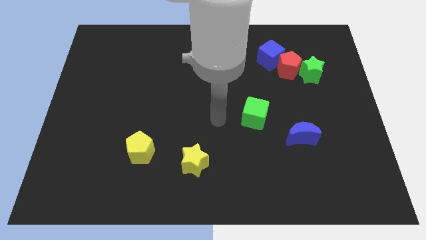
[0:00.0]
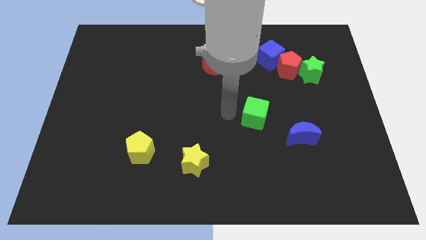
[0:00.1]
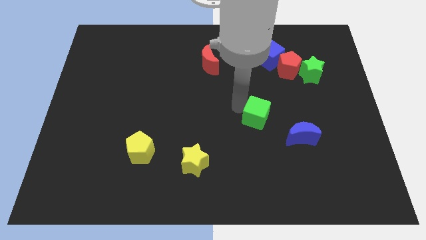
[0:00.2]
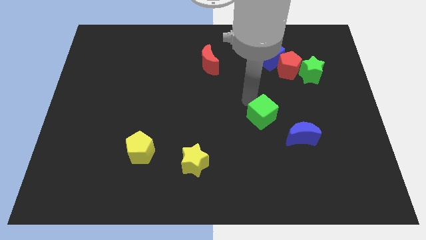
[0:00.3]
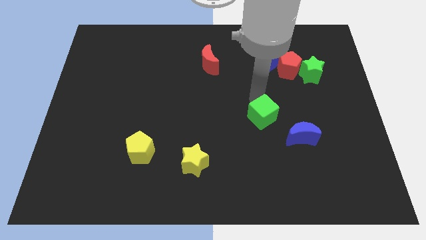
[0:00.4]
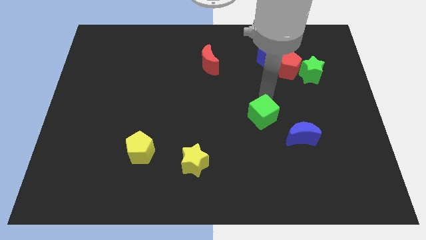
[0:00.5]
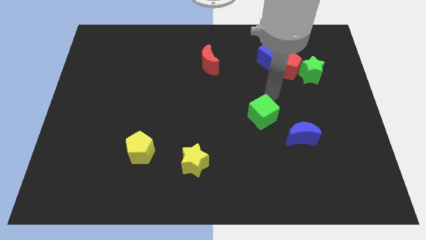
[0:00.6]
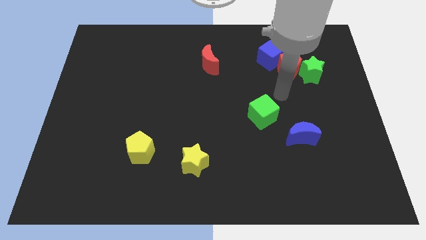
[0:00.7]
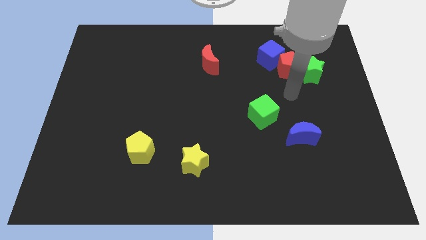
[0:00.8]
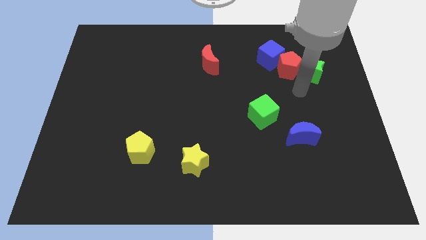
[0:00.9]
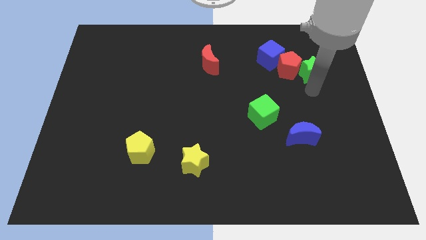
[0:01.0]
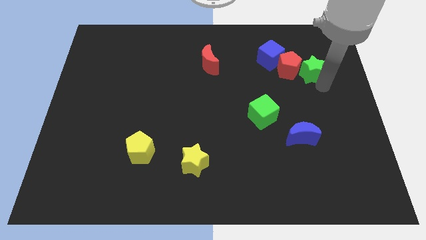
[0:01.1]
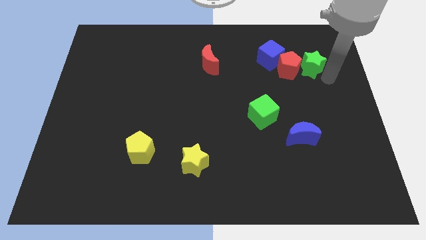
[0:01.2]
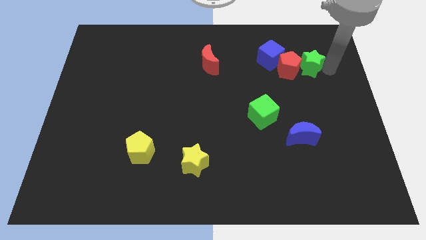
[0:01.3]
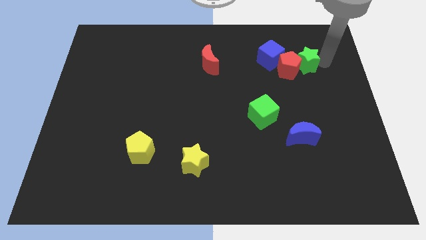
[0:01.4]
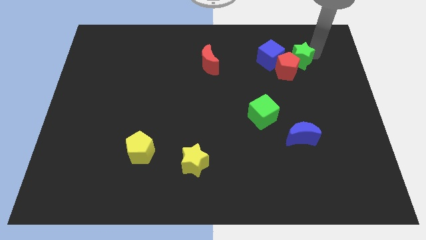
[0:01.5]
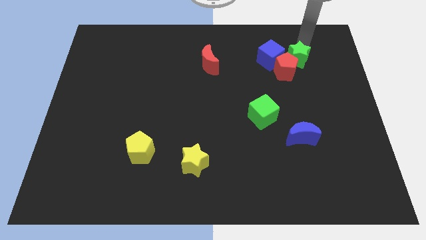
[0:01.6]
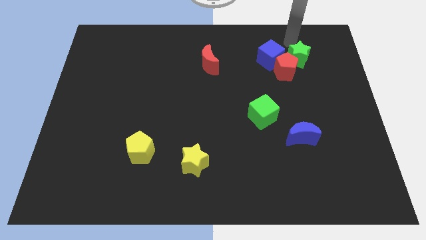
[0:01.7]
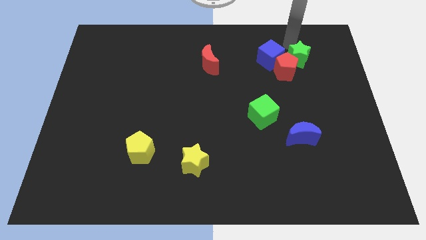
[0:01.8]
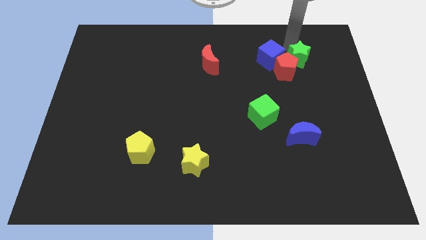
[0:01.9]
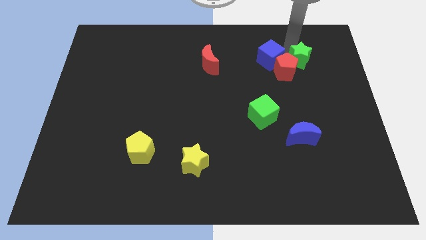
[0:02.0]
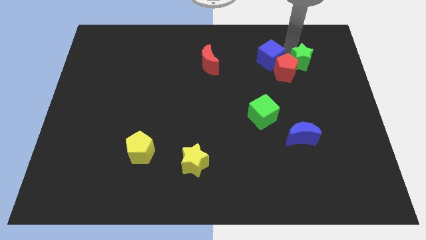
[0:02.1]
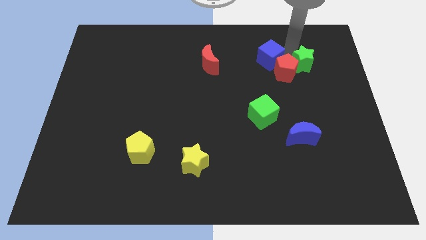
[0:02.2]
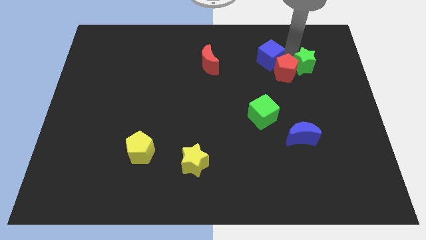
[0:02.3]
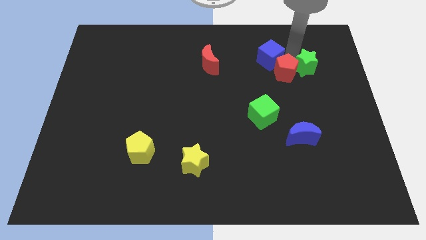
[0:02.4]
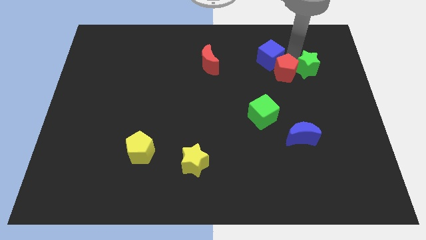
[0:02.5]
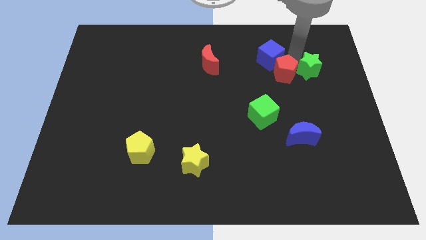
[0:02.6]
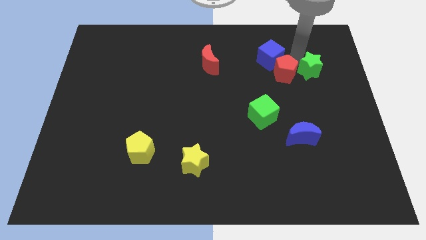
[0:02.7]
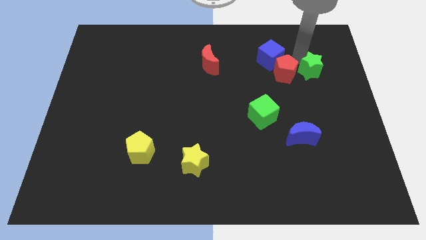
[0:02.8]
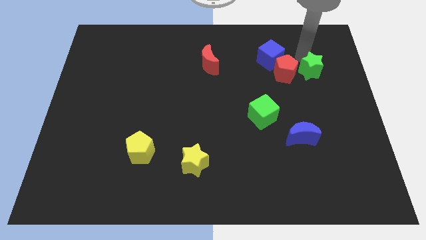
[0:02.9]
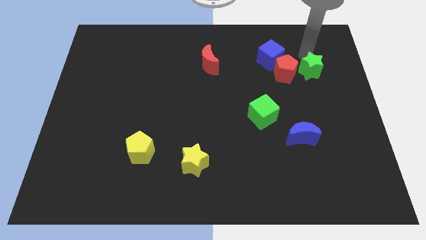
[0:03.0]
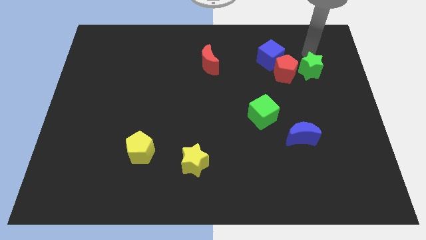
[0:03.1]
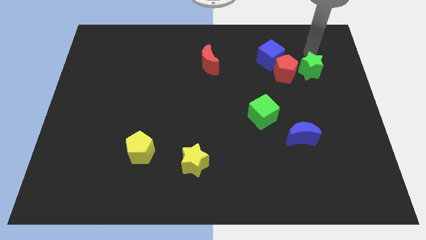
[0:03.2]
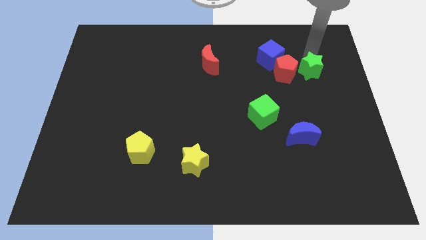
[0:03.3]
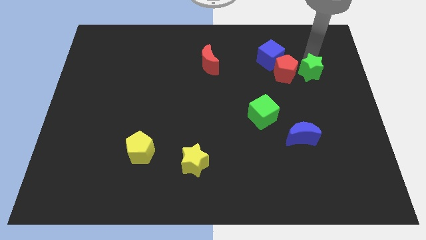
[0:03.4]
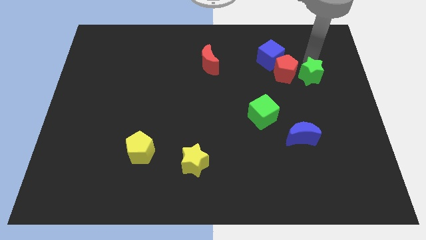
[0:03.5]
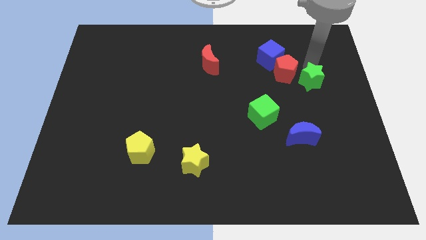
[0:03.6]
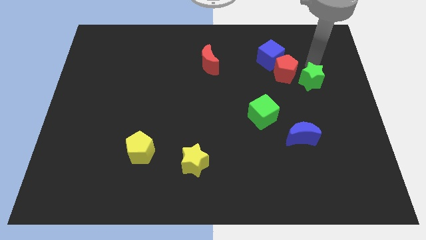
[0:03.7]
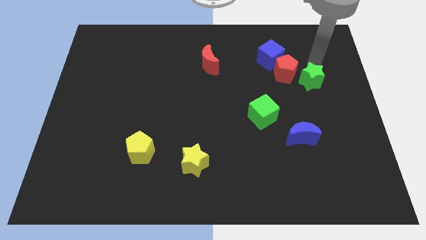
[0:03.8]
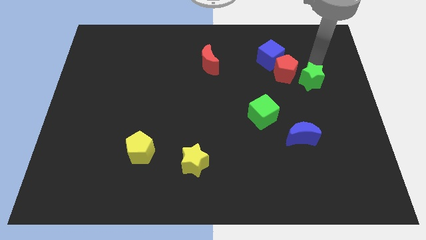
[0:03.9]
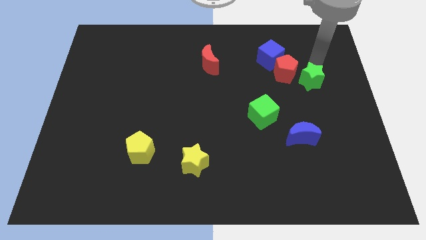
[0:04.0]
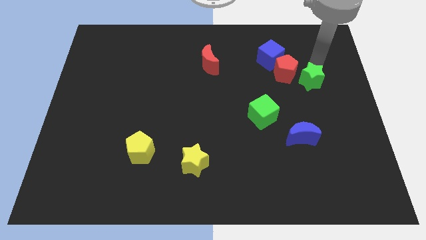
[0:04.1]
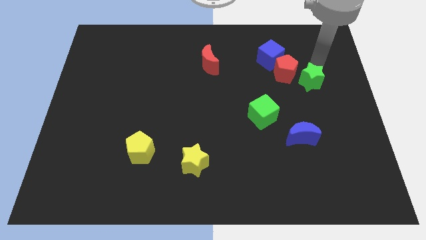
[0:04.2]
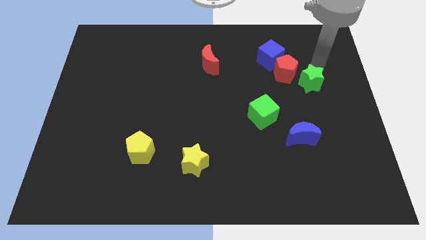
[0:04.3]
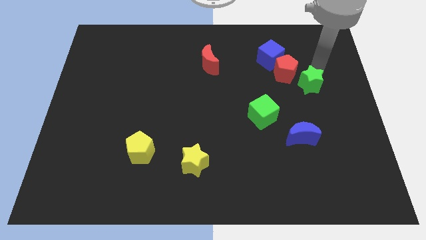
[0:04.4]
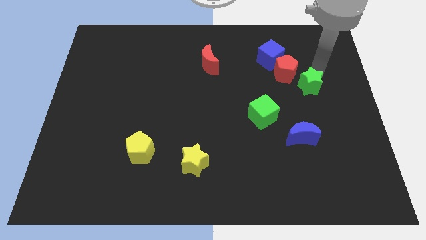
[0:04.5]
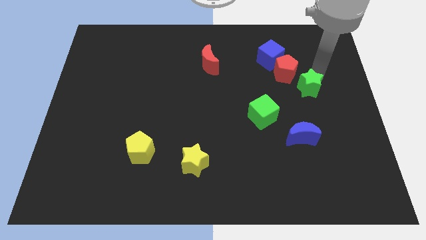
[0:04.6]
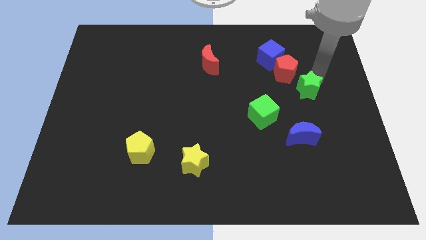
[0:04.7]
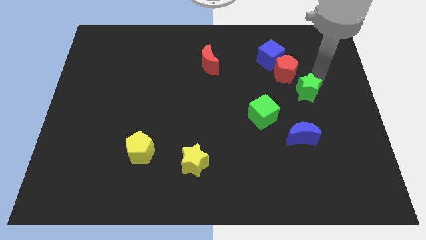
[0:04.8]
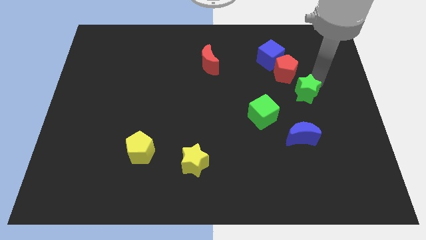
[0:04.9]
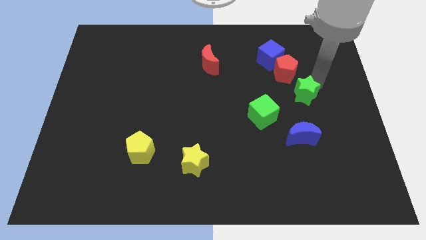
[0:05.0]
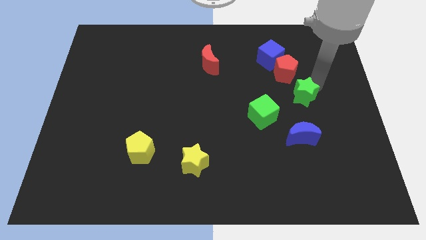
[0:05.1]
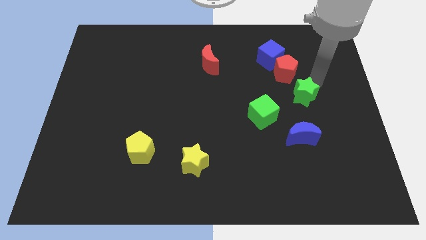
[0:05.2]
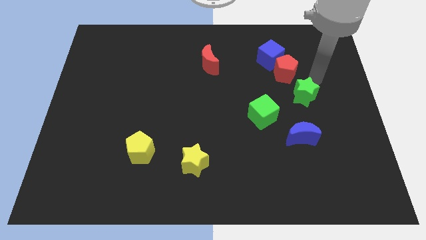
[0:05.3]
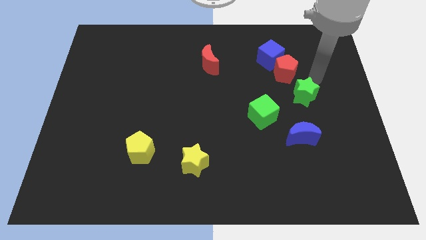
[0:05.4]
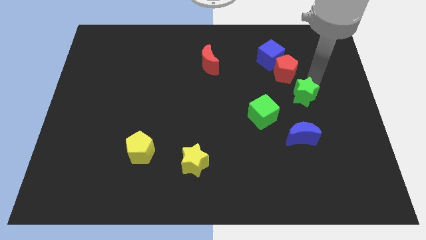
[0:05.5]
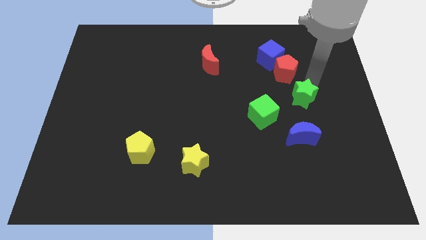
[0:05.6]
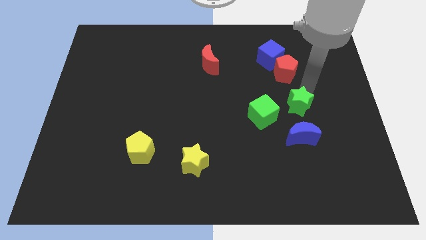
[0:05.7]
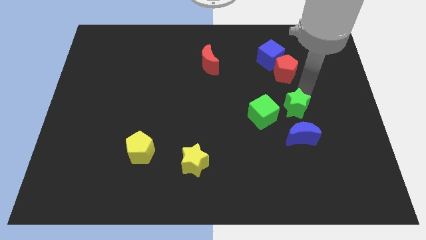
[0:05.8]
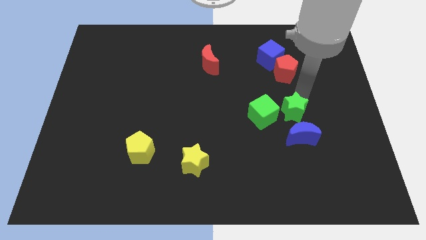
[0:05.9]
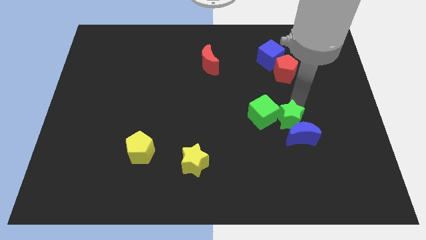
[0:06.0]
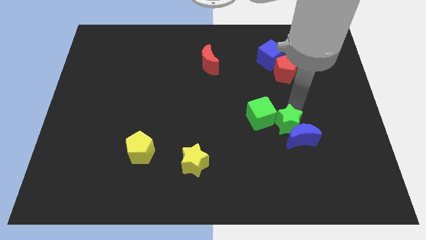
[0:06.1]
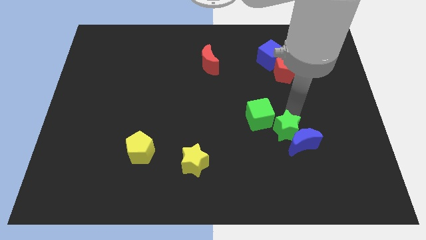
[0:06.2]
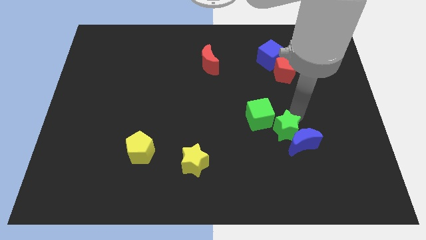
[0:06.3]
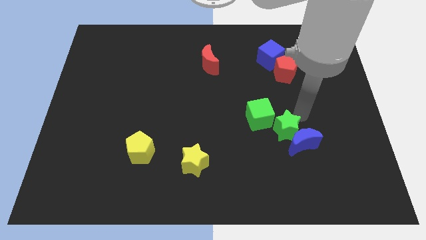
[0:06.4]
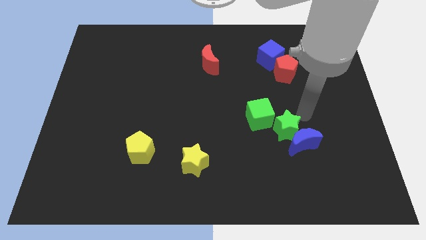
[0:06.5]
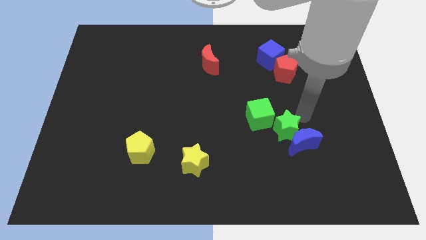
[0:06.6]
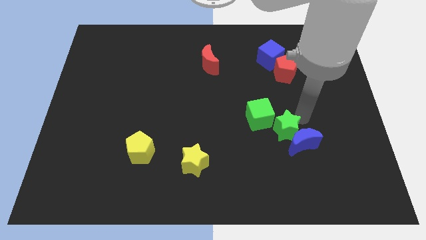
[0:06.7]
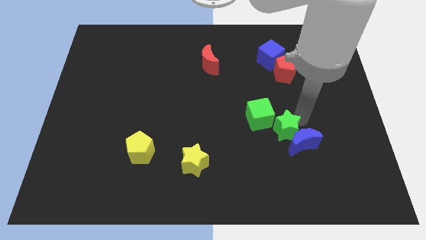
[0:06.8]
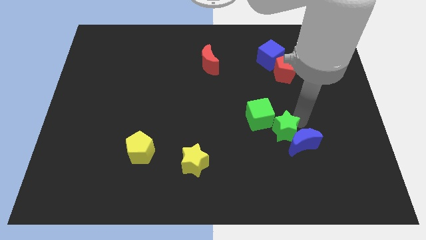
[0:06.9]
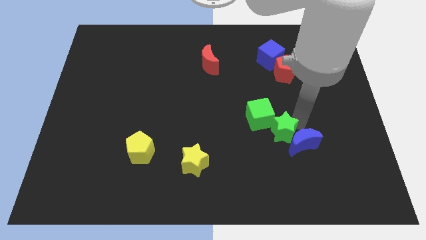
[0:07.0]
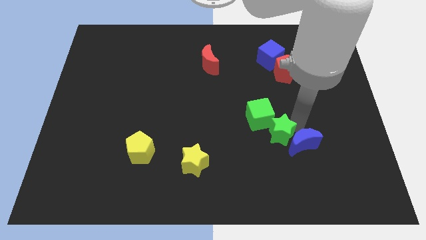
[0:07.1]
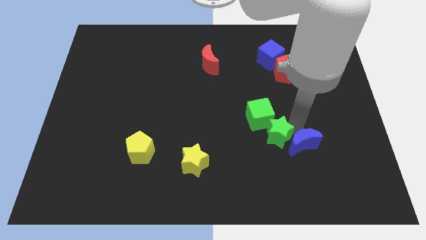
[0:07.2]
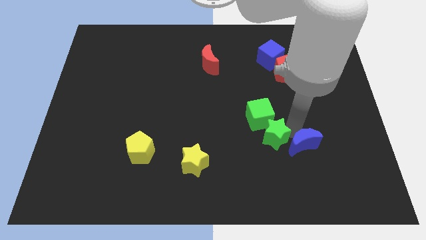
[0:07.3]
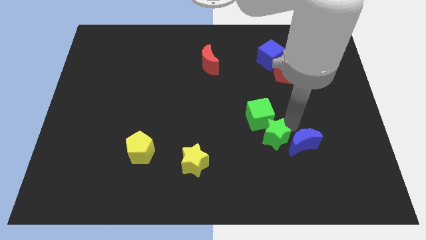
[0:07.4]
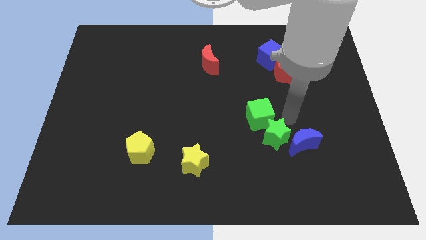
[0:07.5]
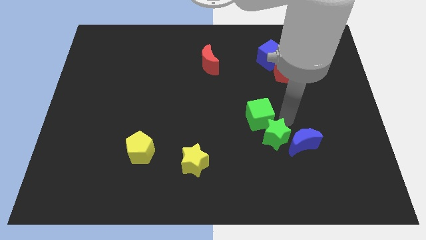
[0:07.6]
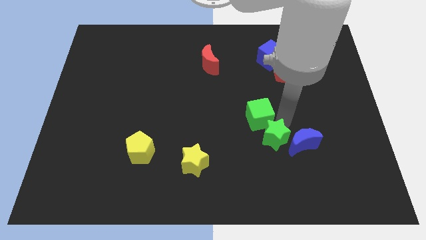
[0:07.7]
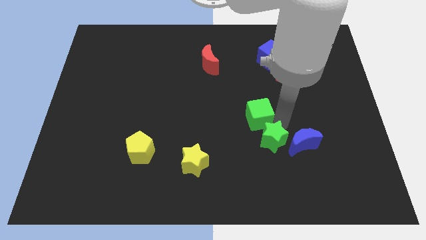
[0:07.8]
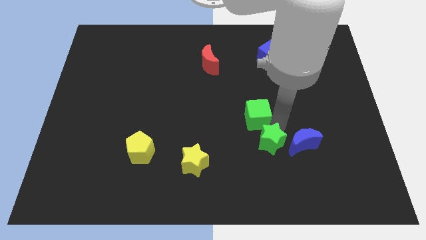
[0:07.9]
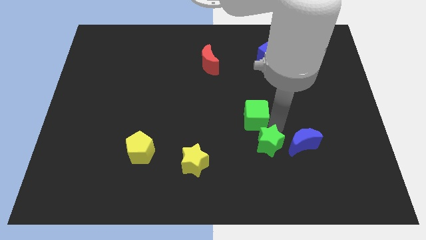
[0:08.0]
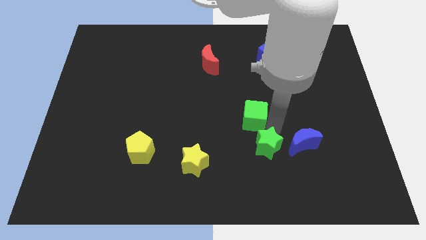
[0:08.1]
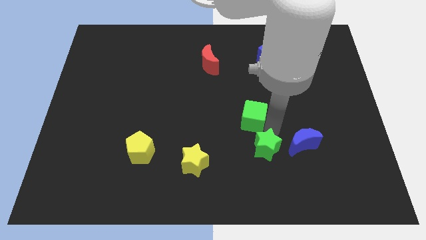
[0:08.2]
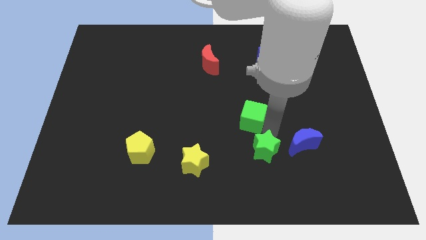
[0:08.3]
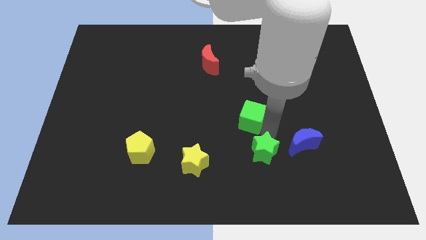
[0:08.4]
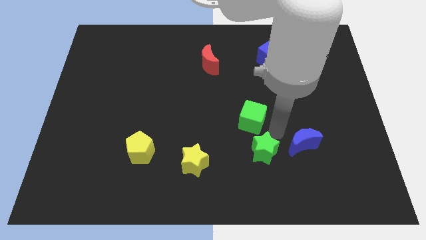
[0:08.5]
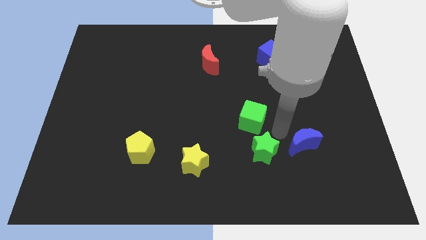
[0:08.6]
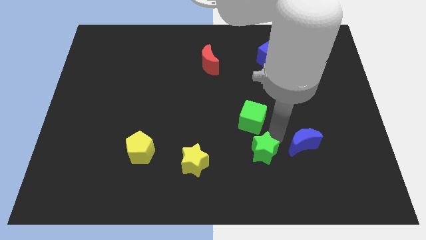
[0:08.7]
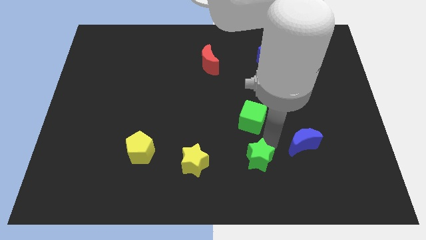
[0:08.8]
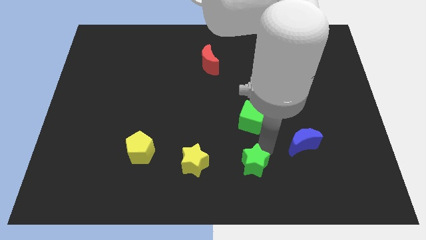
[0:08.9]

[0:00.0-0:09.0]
move the green star to the bottom
